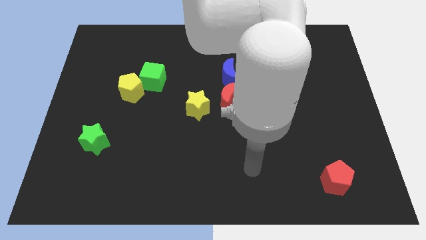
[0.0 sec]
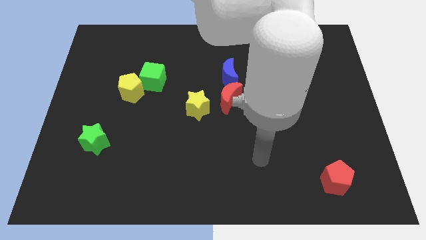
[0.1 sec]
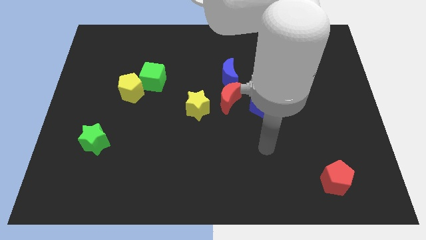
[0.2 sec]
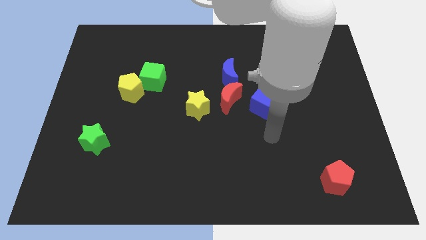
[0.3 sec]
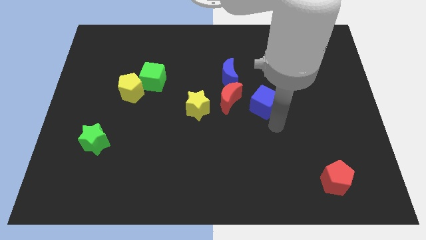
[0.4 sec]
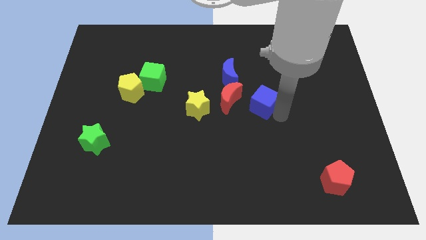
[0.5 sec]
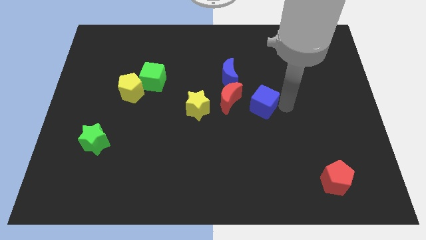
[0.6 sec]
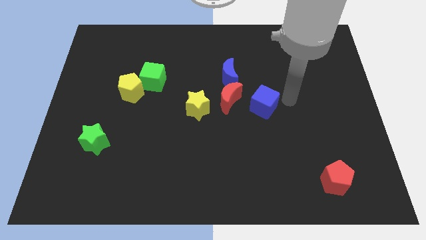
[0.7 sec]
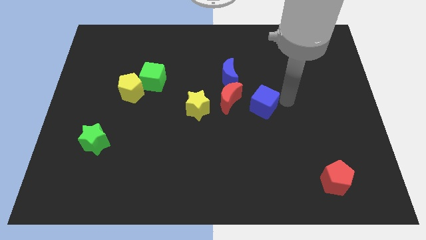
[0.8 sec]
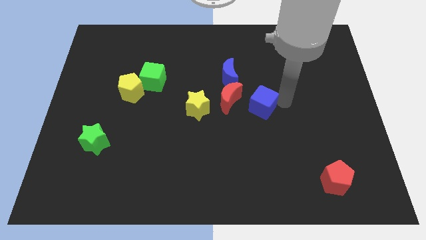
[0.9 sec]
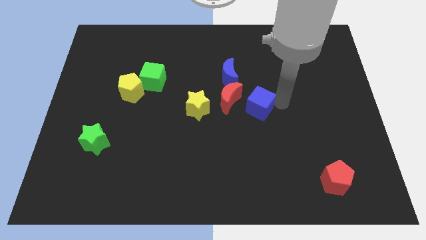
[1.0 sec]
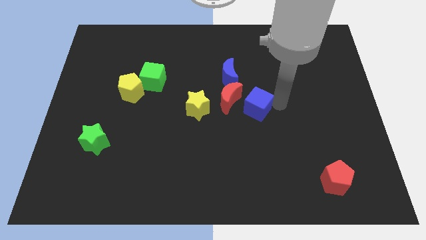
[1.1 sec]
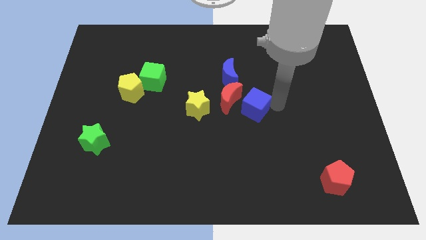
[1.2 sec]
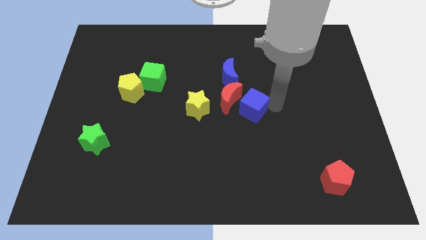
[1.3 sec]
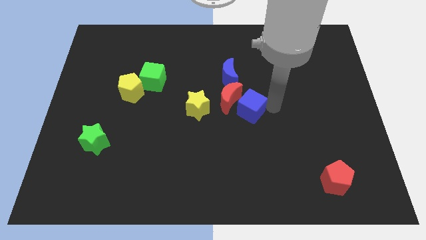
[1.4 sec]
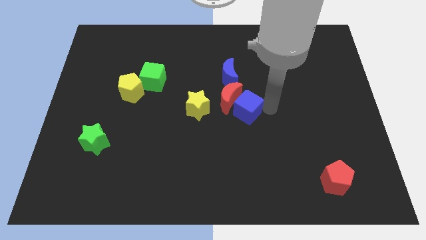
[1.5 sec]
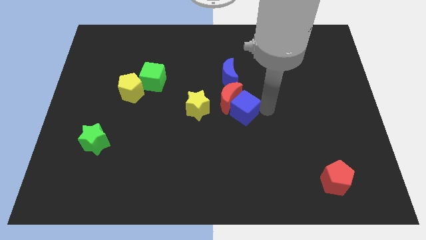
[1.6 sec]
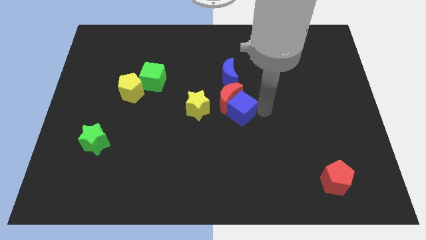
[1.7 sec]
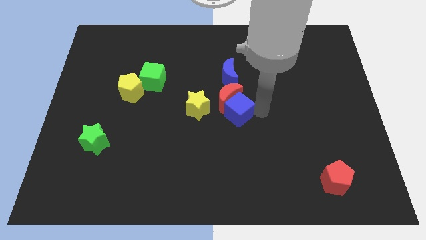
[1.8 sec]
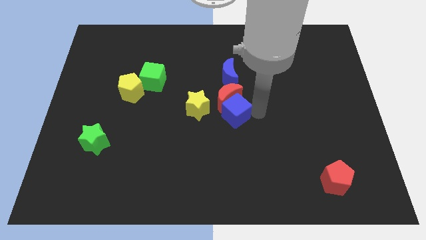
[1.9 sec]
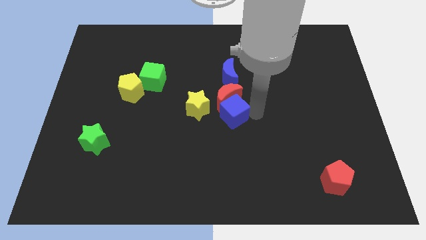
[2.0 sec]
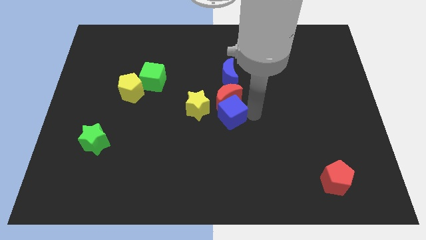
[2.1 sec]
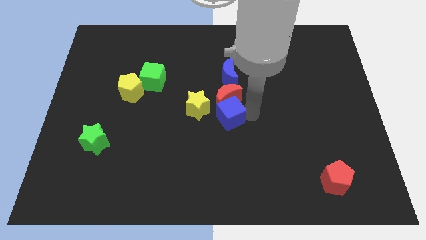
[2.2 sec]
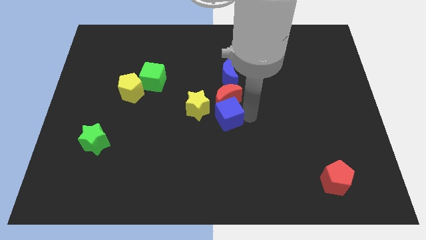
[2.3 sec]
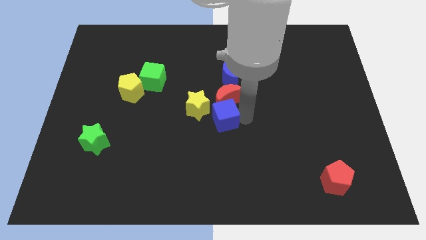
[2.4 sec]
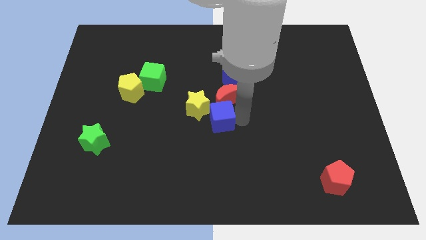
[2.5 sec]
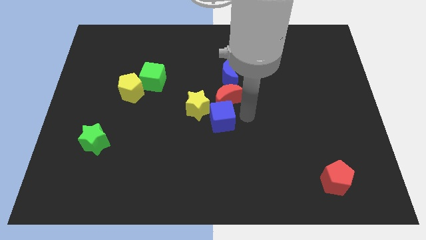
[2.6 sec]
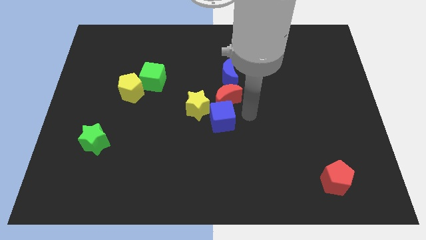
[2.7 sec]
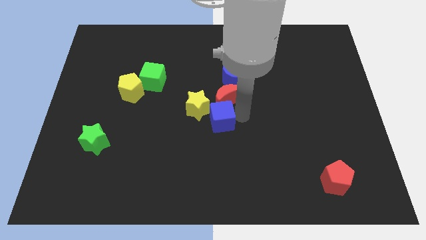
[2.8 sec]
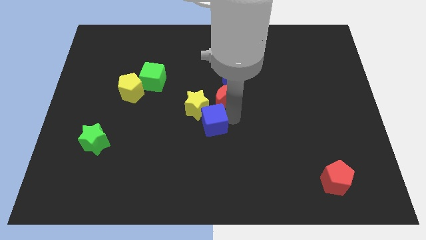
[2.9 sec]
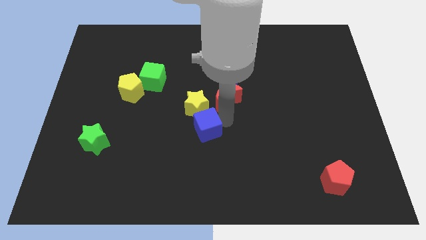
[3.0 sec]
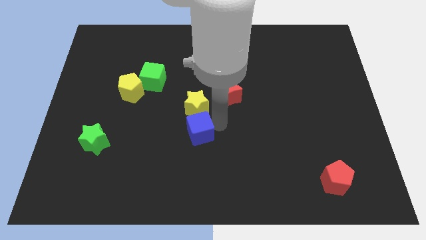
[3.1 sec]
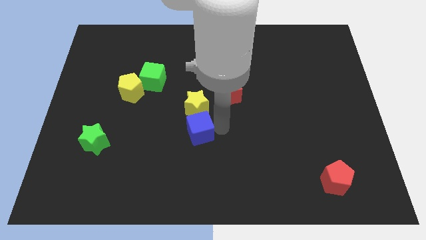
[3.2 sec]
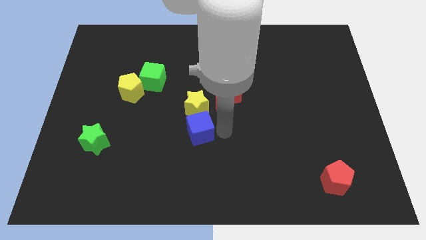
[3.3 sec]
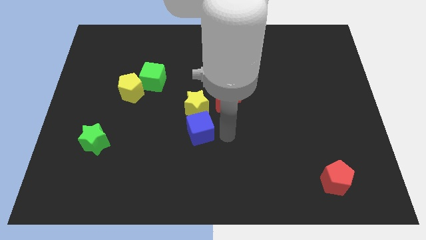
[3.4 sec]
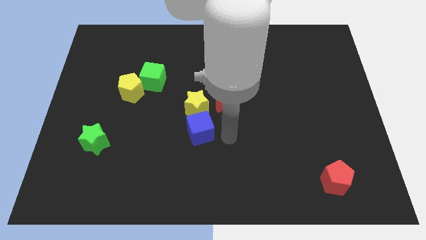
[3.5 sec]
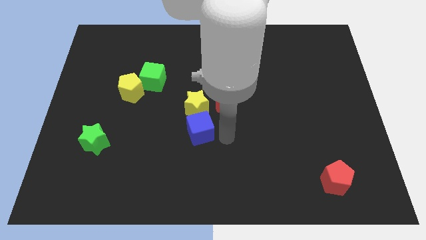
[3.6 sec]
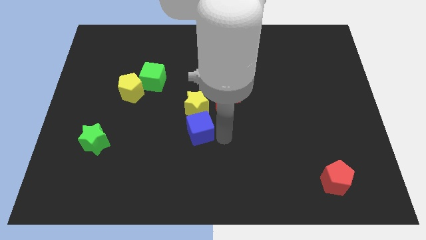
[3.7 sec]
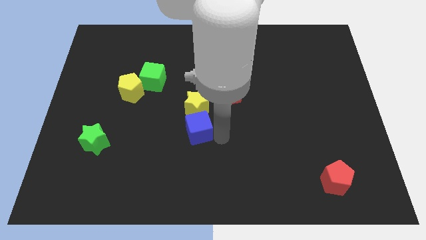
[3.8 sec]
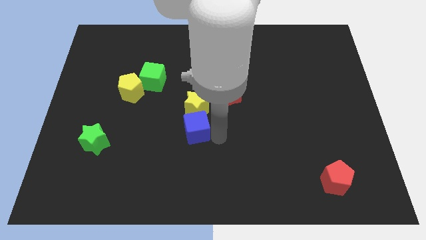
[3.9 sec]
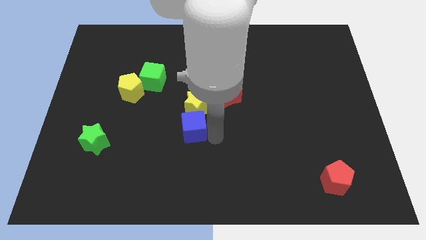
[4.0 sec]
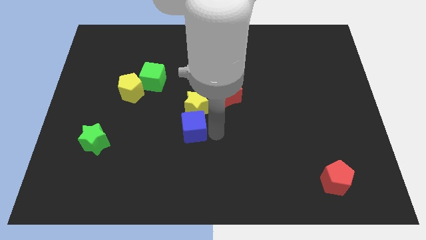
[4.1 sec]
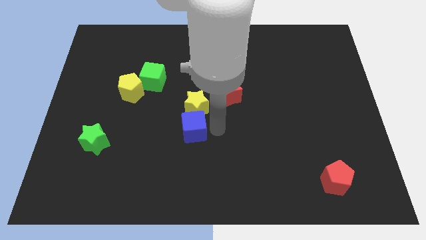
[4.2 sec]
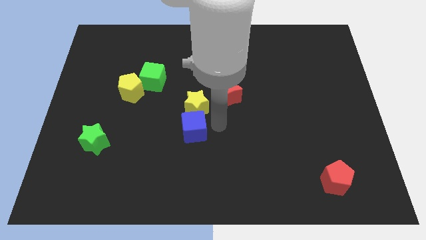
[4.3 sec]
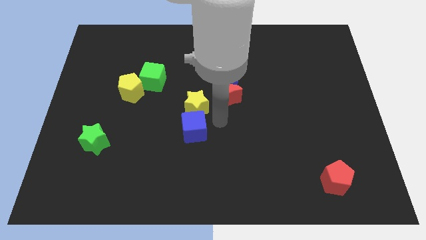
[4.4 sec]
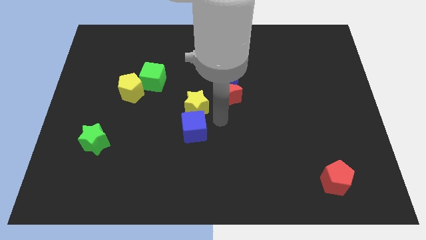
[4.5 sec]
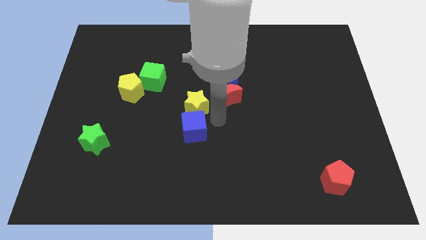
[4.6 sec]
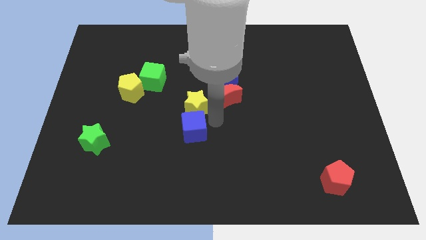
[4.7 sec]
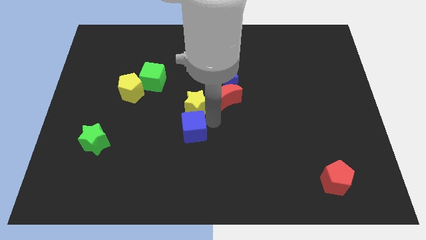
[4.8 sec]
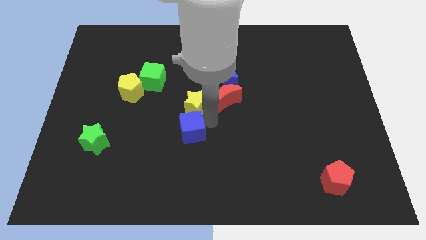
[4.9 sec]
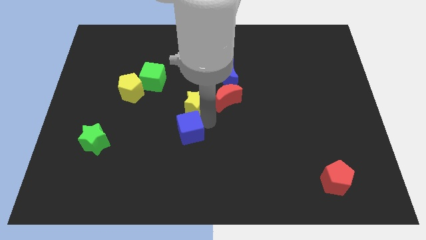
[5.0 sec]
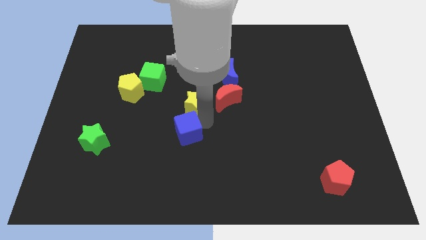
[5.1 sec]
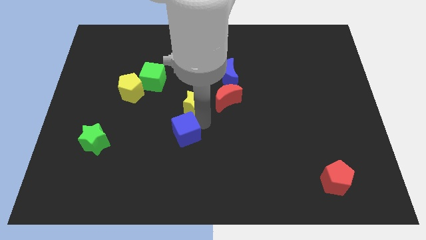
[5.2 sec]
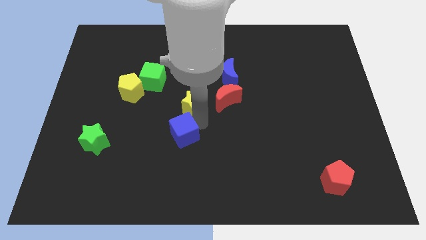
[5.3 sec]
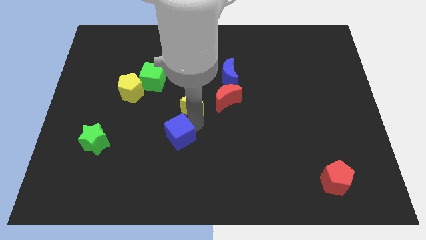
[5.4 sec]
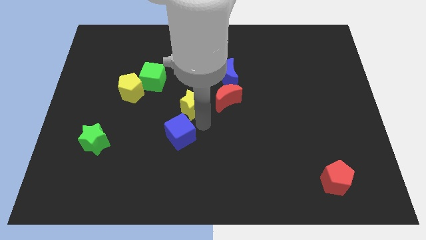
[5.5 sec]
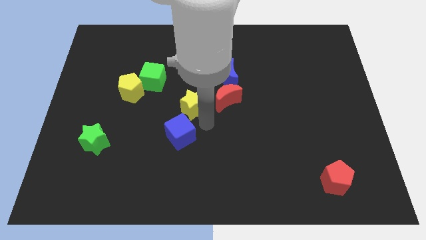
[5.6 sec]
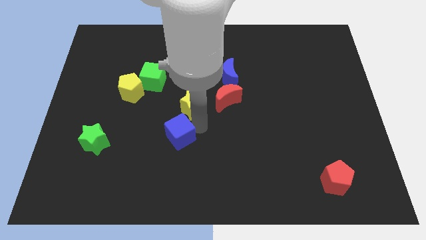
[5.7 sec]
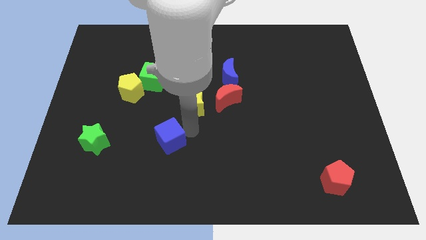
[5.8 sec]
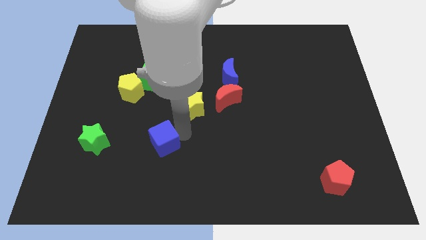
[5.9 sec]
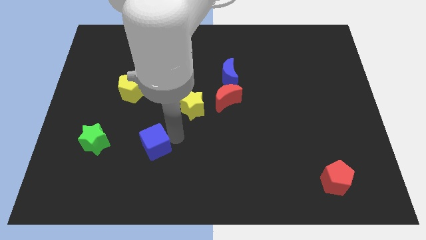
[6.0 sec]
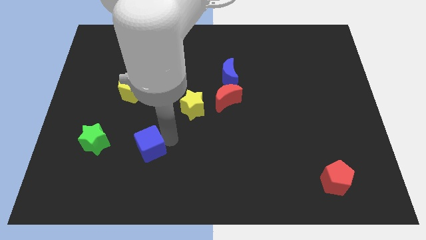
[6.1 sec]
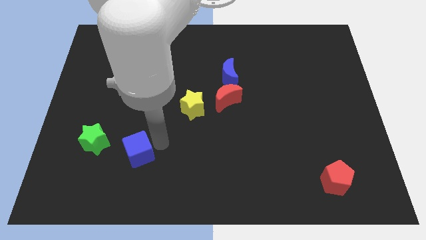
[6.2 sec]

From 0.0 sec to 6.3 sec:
put the blue cube to the bottom right of the green star

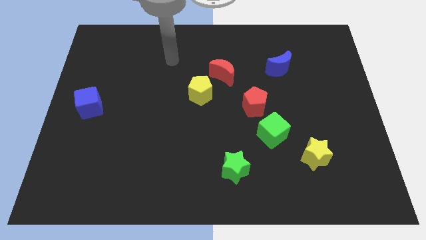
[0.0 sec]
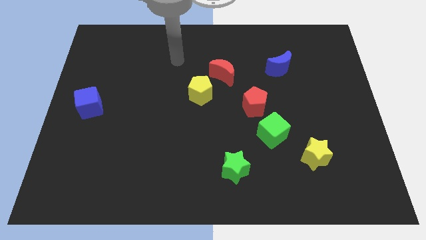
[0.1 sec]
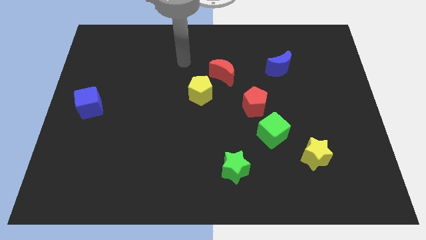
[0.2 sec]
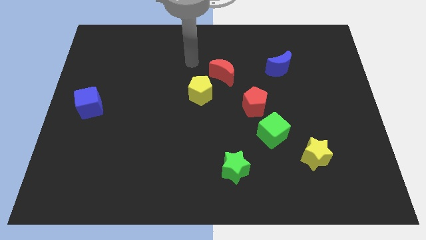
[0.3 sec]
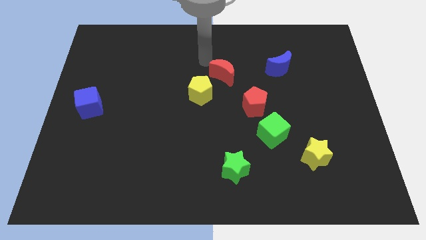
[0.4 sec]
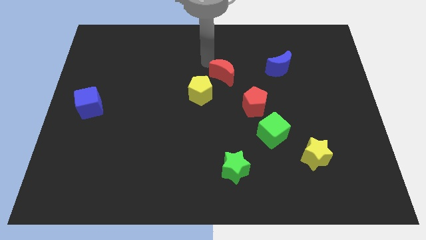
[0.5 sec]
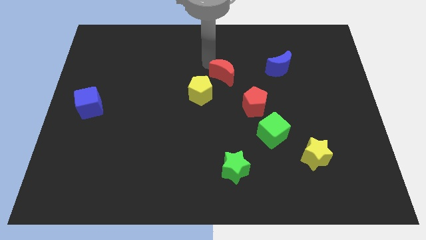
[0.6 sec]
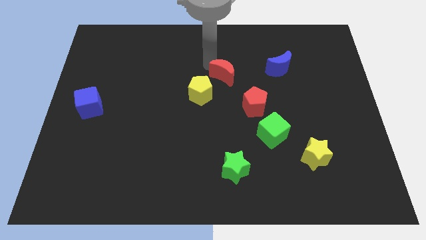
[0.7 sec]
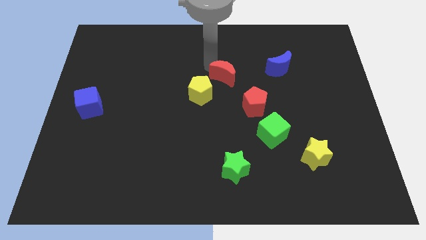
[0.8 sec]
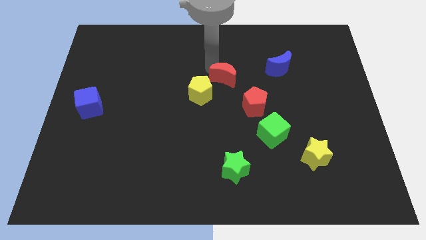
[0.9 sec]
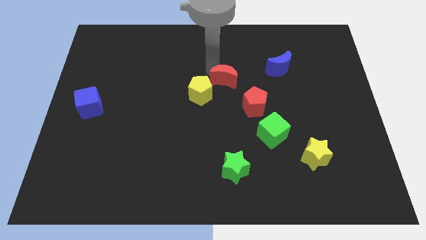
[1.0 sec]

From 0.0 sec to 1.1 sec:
slide the red moon to the right side of the yellow pentagon
